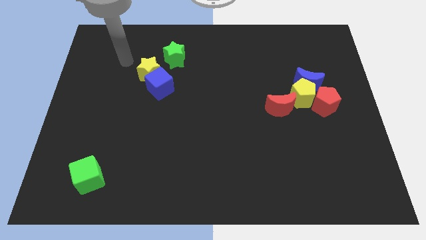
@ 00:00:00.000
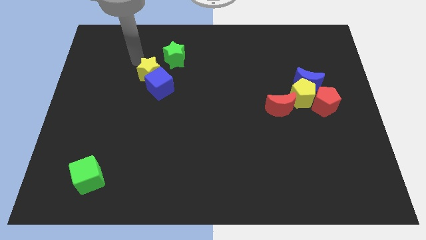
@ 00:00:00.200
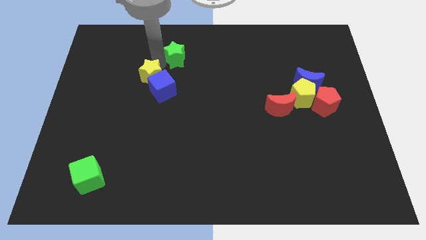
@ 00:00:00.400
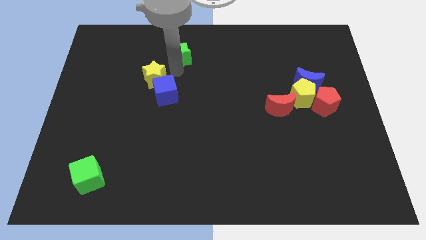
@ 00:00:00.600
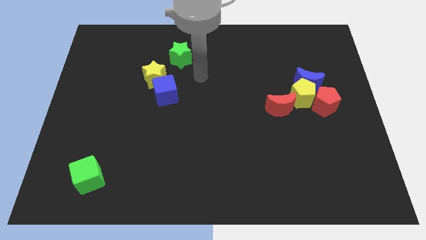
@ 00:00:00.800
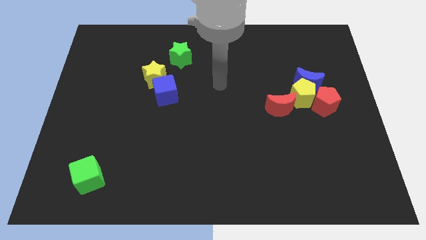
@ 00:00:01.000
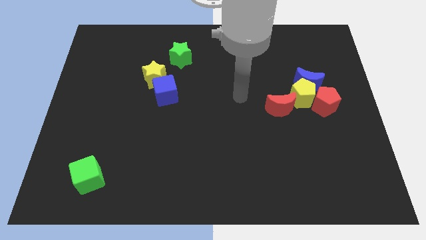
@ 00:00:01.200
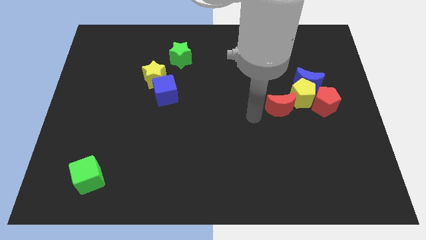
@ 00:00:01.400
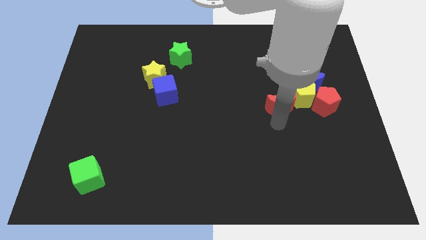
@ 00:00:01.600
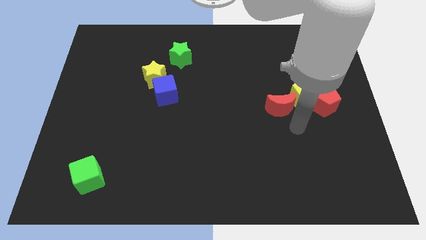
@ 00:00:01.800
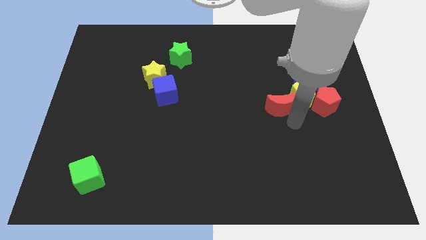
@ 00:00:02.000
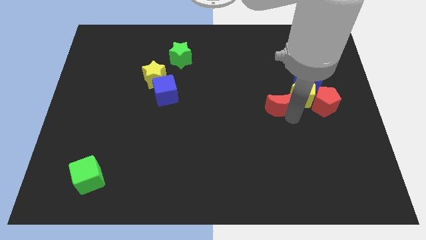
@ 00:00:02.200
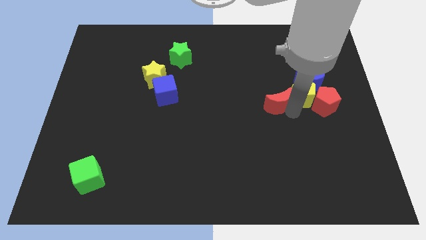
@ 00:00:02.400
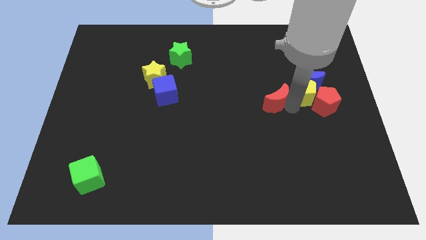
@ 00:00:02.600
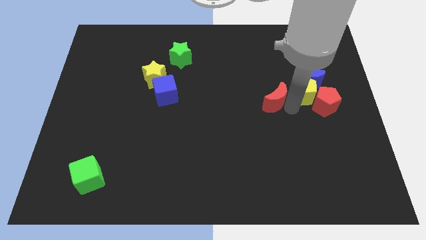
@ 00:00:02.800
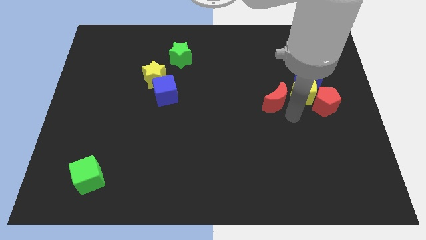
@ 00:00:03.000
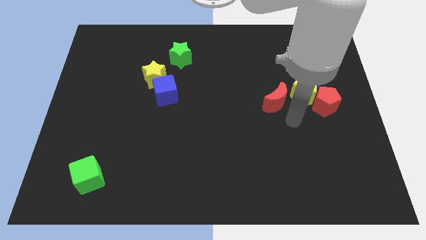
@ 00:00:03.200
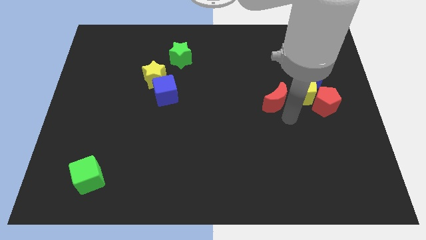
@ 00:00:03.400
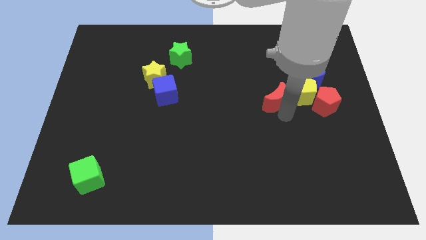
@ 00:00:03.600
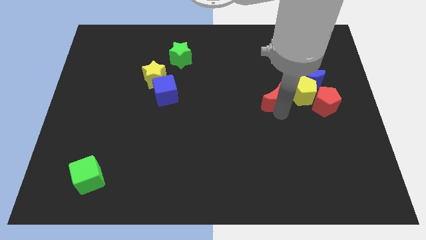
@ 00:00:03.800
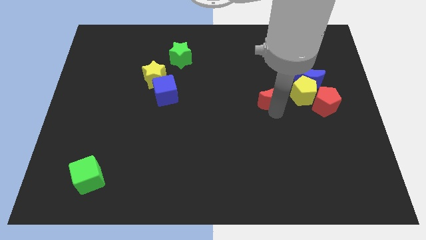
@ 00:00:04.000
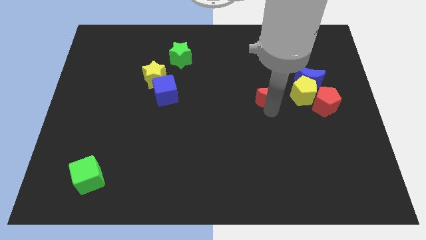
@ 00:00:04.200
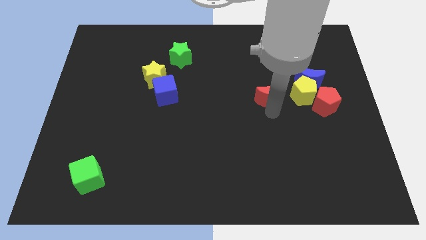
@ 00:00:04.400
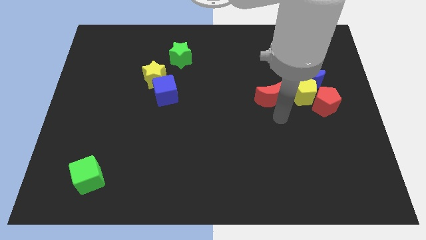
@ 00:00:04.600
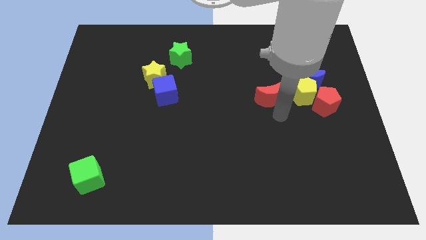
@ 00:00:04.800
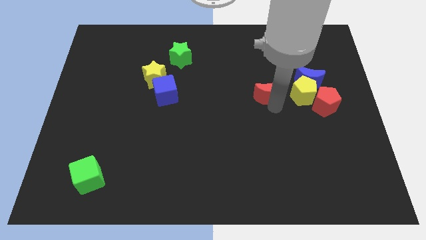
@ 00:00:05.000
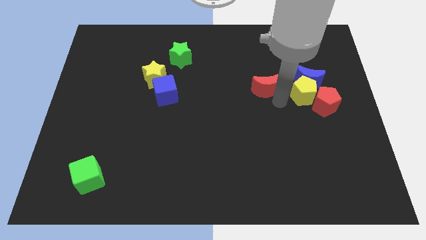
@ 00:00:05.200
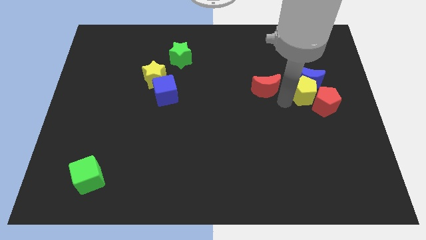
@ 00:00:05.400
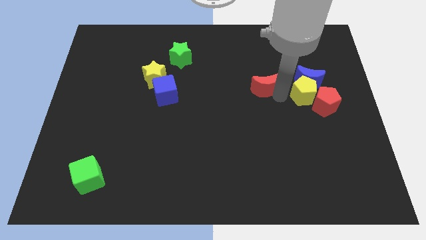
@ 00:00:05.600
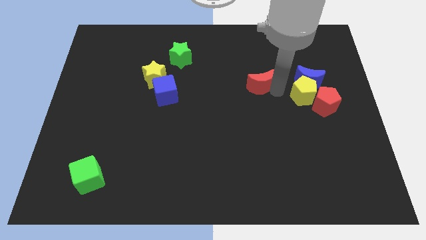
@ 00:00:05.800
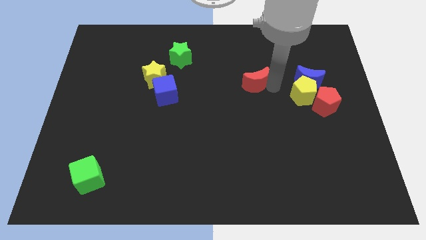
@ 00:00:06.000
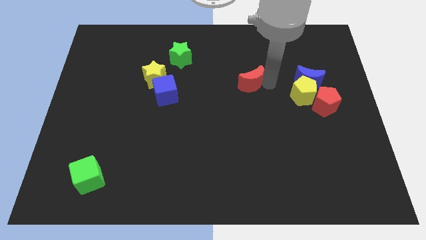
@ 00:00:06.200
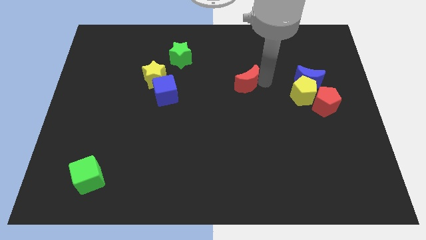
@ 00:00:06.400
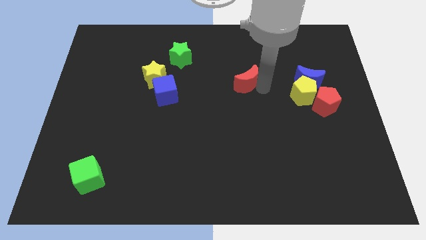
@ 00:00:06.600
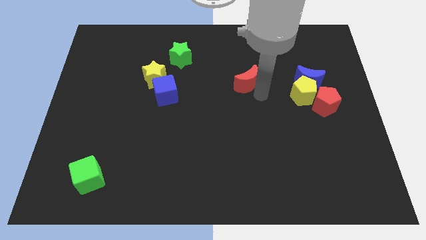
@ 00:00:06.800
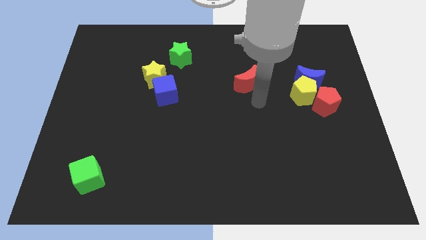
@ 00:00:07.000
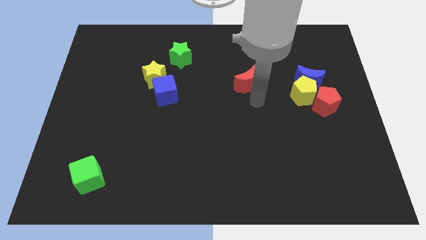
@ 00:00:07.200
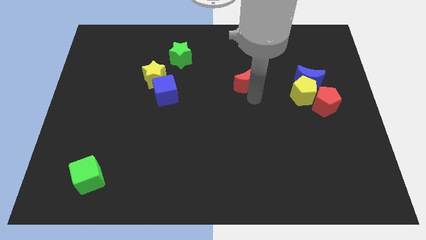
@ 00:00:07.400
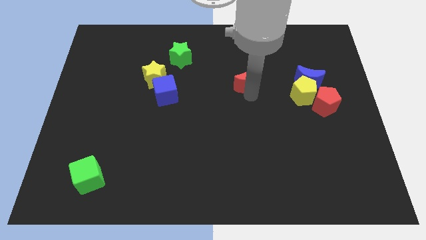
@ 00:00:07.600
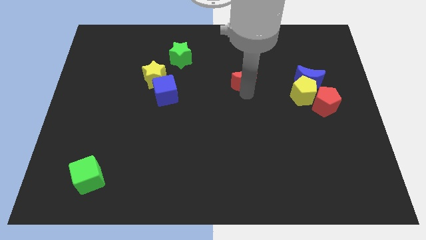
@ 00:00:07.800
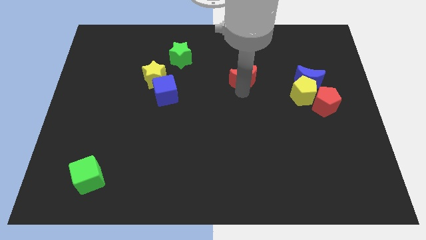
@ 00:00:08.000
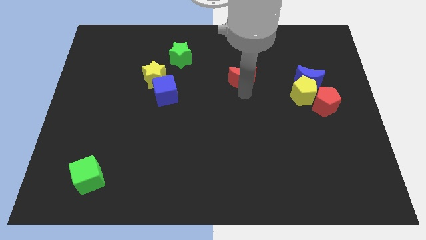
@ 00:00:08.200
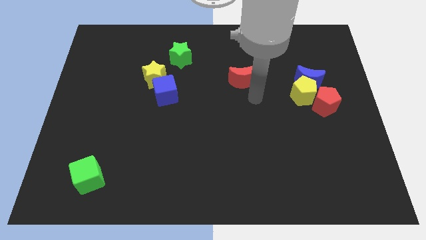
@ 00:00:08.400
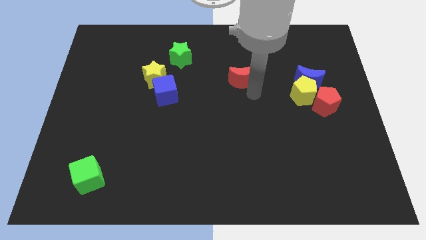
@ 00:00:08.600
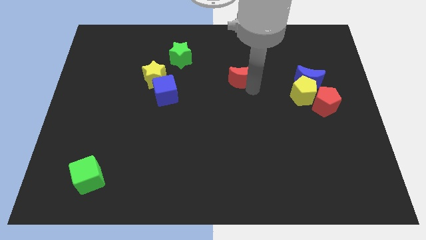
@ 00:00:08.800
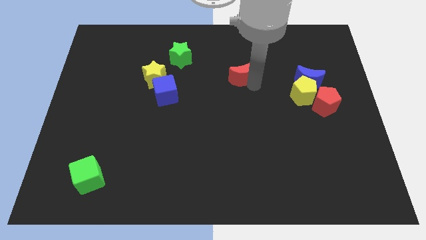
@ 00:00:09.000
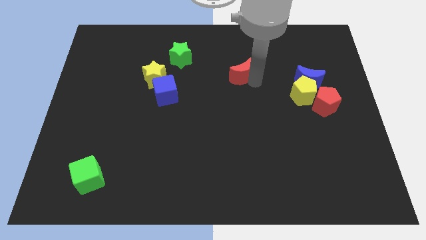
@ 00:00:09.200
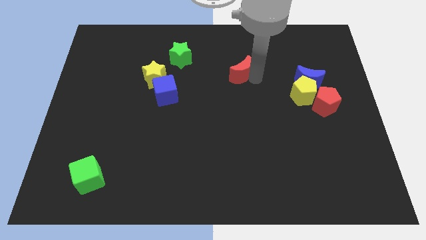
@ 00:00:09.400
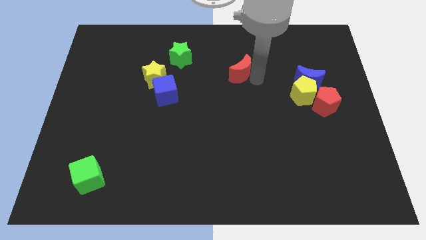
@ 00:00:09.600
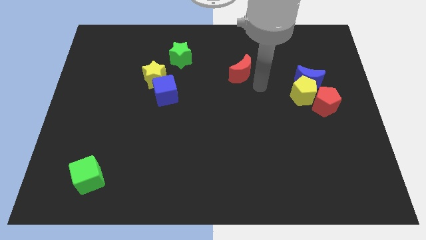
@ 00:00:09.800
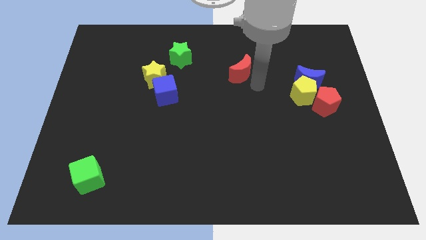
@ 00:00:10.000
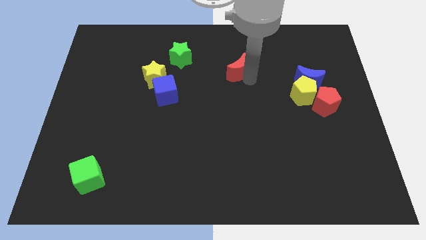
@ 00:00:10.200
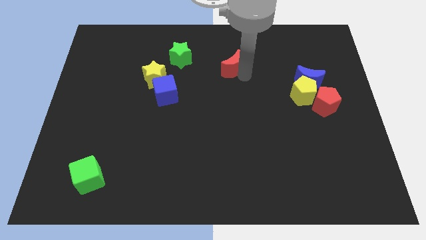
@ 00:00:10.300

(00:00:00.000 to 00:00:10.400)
push the red moon to the right side of the green star

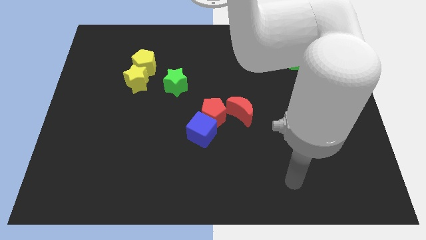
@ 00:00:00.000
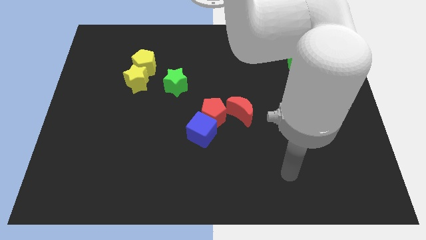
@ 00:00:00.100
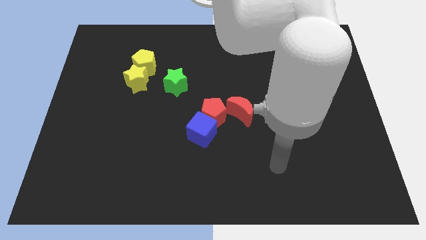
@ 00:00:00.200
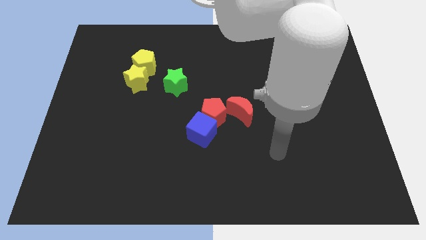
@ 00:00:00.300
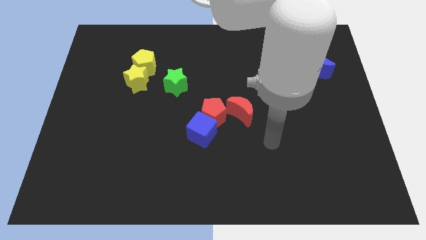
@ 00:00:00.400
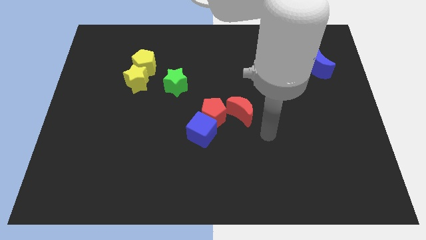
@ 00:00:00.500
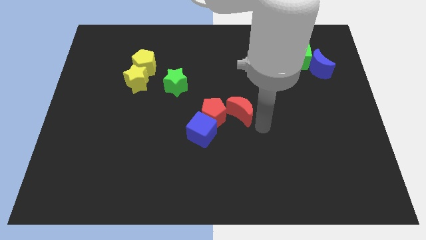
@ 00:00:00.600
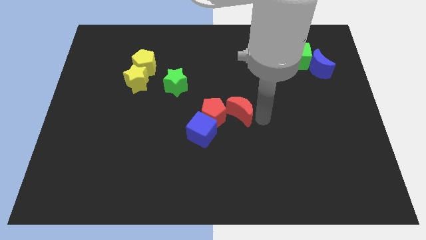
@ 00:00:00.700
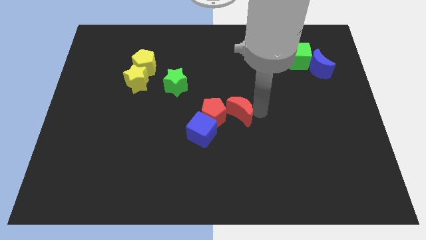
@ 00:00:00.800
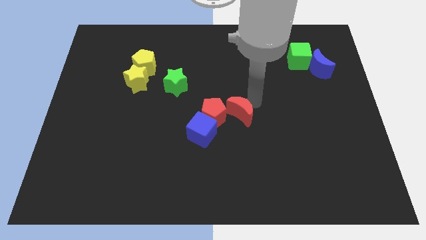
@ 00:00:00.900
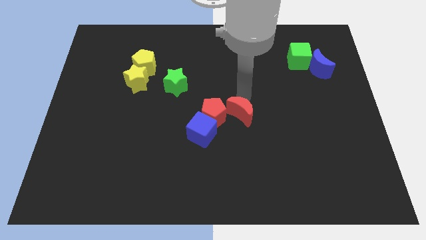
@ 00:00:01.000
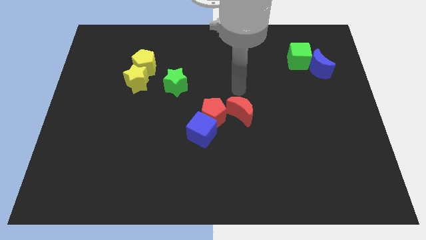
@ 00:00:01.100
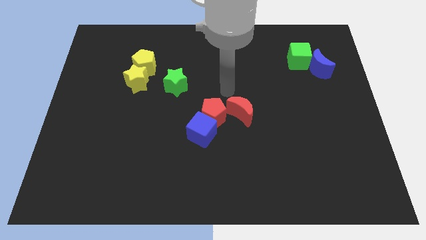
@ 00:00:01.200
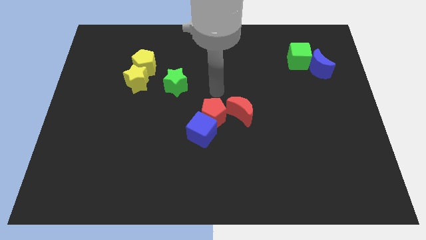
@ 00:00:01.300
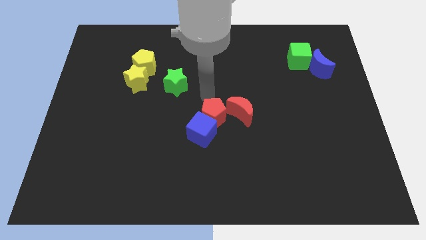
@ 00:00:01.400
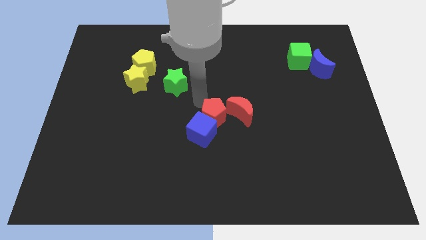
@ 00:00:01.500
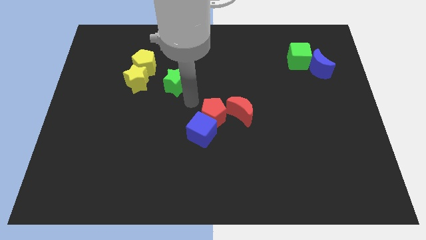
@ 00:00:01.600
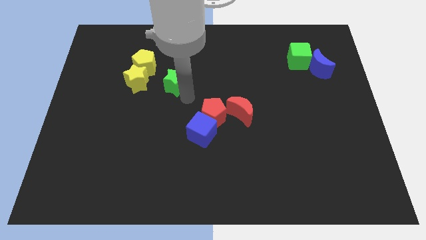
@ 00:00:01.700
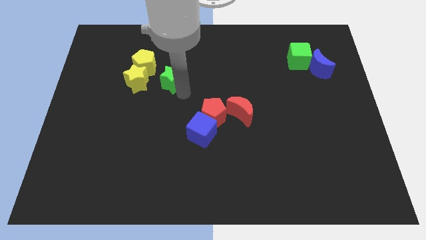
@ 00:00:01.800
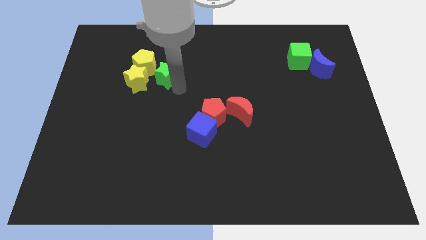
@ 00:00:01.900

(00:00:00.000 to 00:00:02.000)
slide the green star diagonally up and to the right of the yellow star
